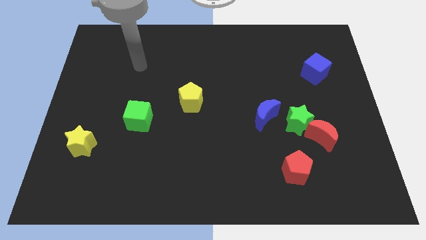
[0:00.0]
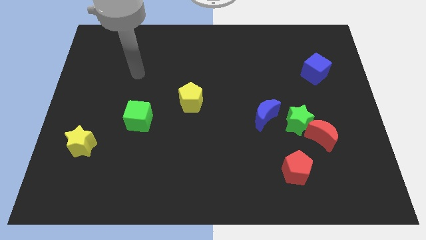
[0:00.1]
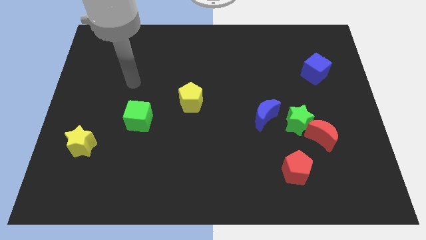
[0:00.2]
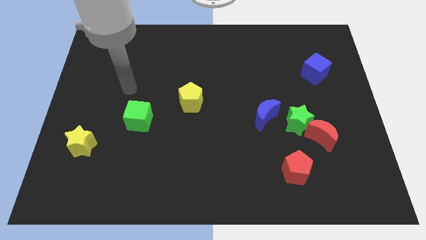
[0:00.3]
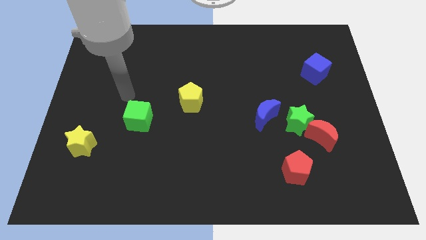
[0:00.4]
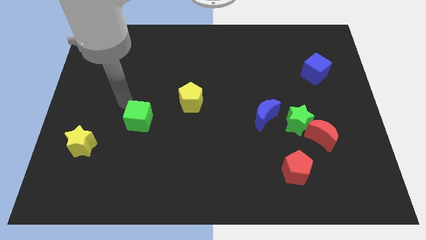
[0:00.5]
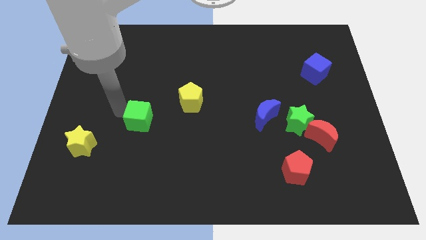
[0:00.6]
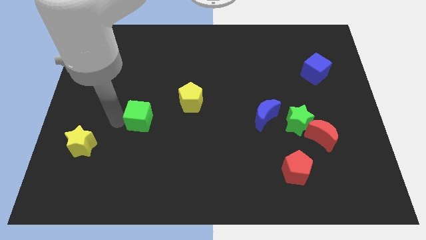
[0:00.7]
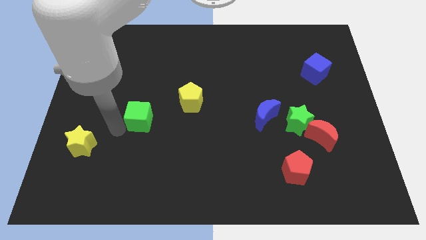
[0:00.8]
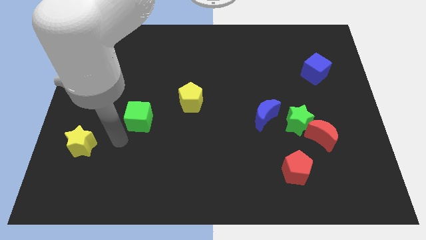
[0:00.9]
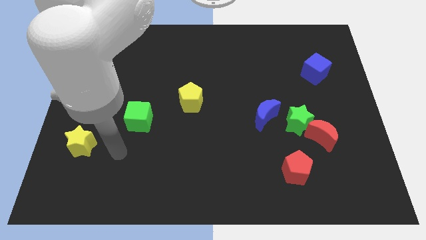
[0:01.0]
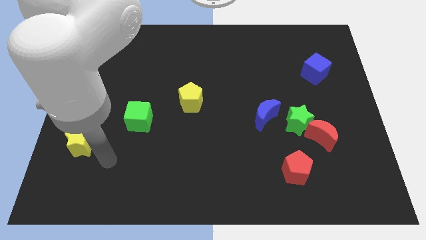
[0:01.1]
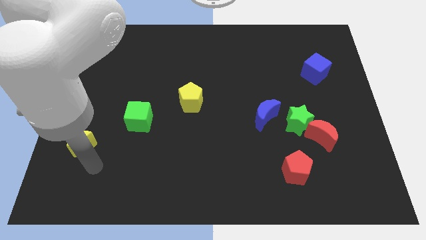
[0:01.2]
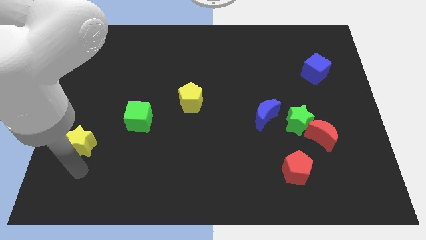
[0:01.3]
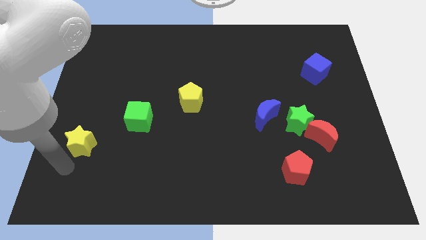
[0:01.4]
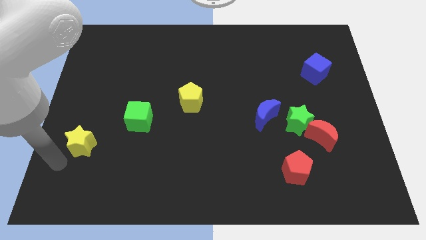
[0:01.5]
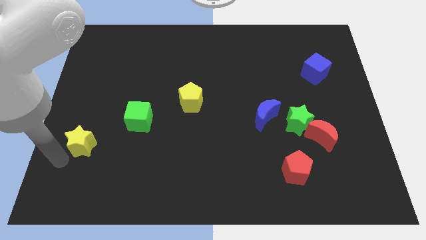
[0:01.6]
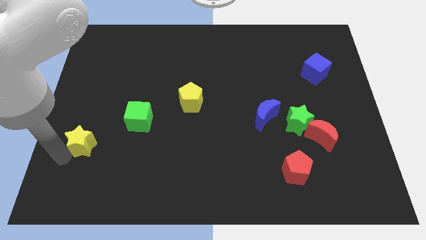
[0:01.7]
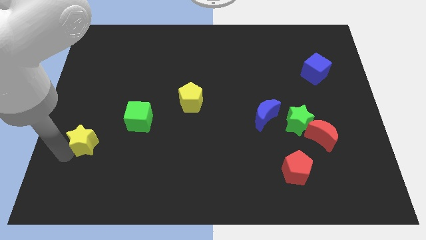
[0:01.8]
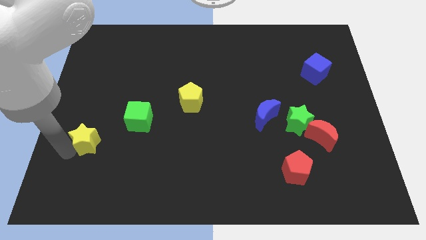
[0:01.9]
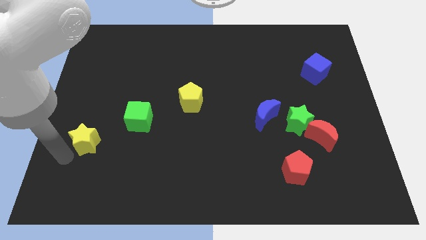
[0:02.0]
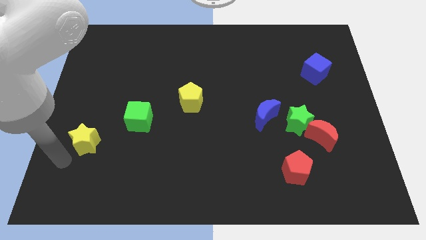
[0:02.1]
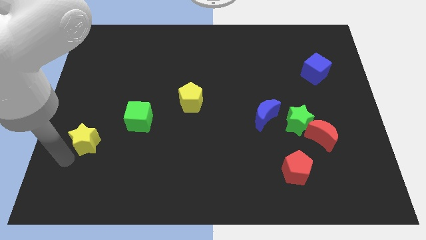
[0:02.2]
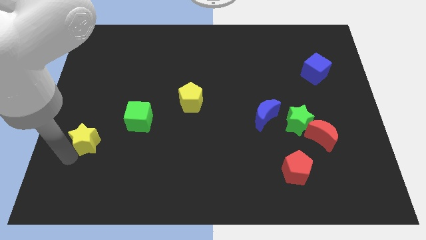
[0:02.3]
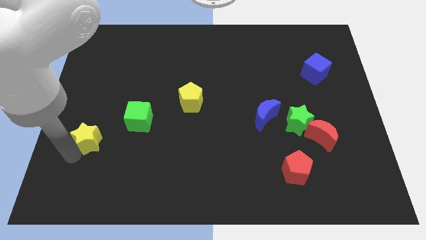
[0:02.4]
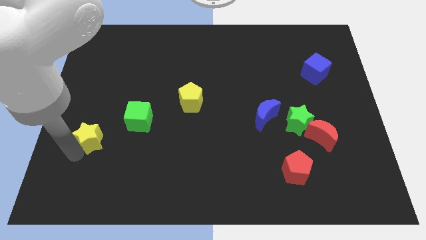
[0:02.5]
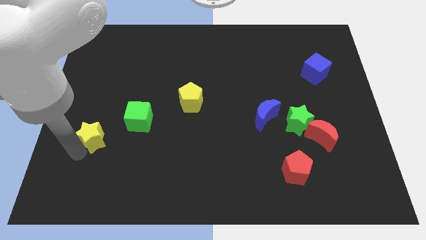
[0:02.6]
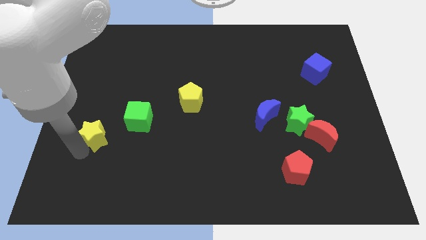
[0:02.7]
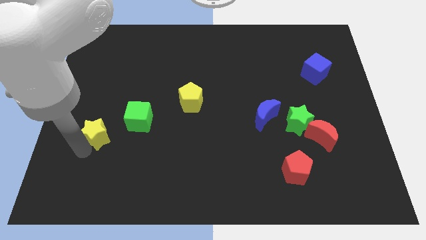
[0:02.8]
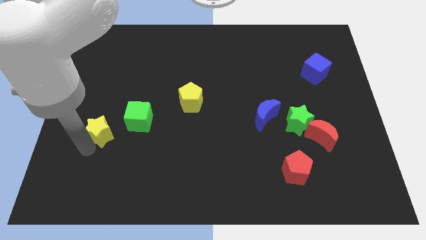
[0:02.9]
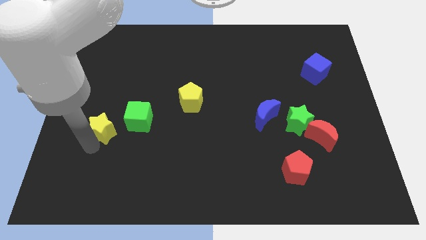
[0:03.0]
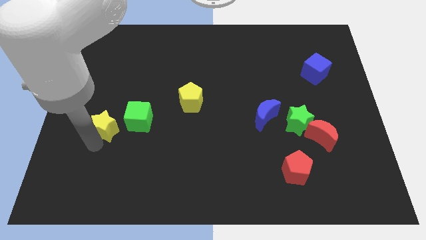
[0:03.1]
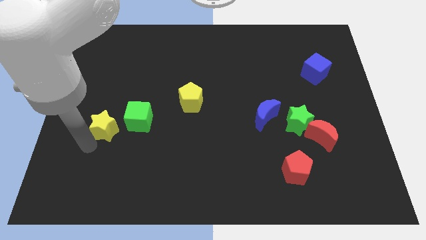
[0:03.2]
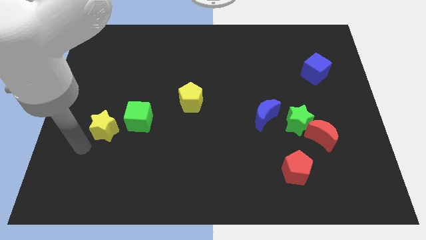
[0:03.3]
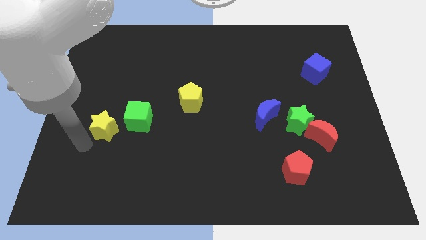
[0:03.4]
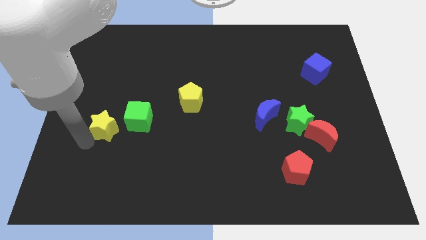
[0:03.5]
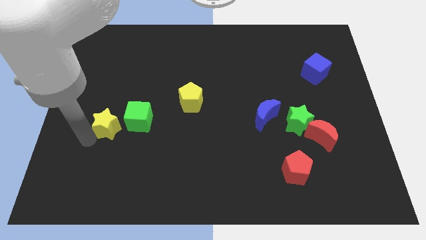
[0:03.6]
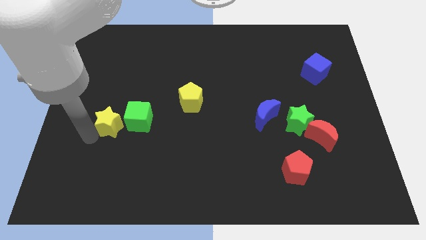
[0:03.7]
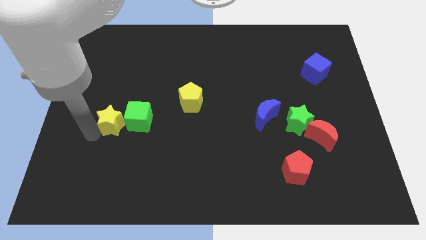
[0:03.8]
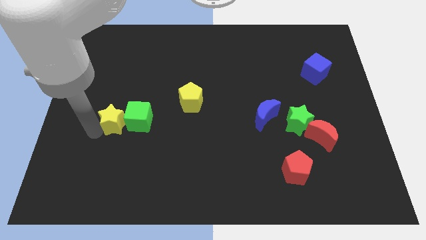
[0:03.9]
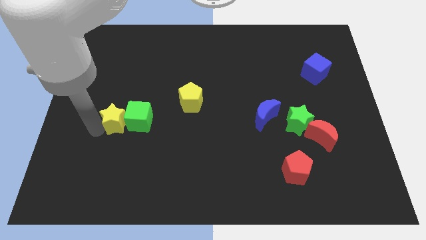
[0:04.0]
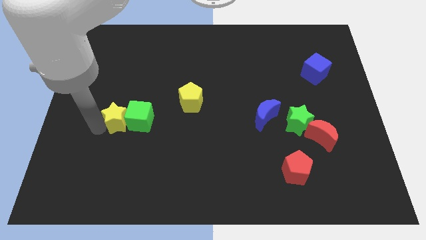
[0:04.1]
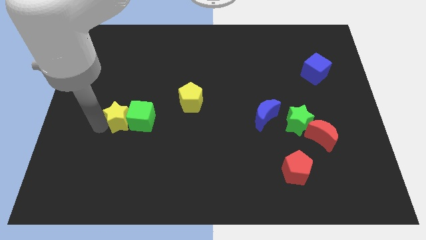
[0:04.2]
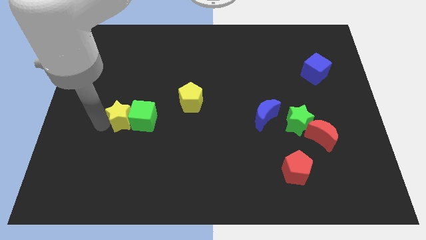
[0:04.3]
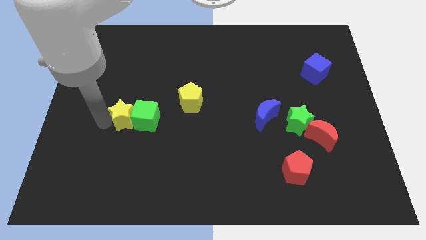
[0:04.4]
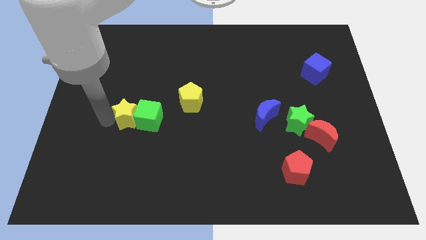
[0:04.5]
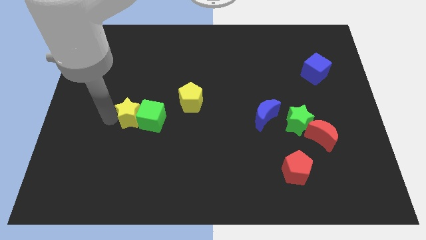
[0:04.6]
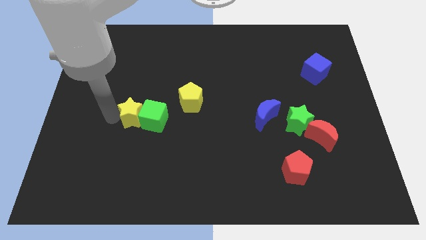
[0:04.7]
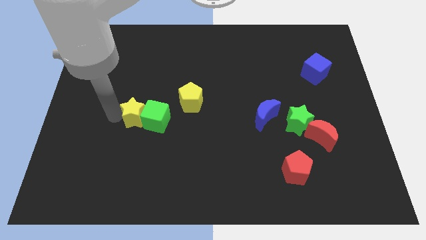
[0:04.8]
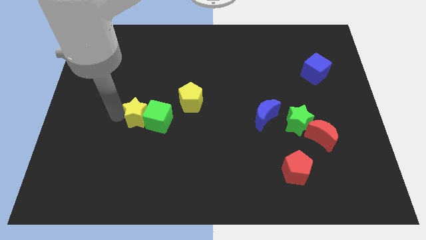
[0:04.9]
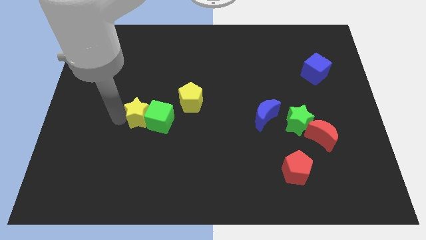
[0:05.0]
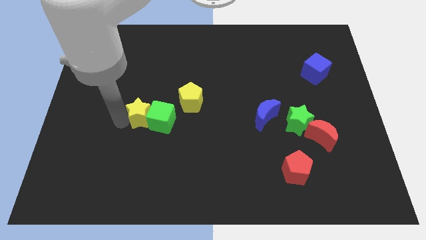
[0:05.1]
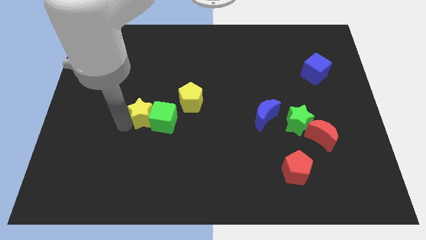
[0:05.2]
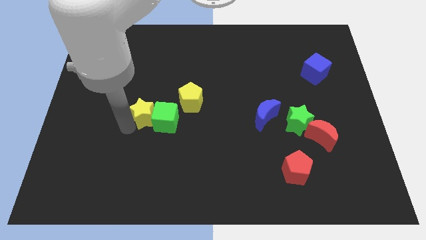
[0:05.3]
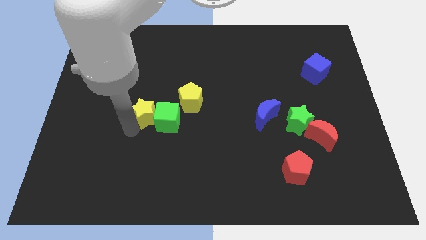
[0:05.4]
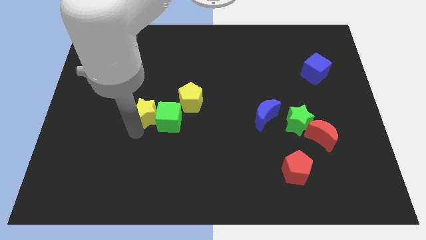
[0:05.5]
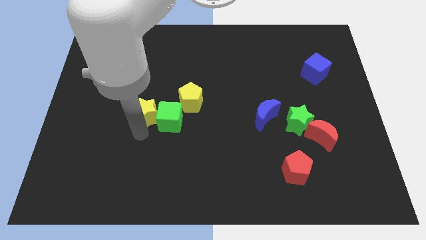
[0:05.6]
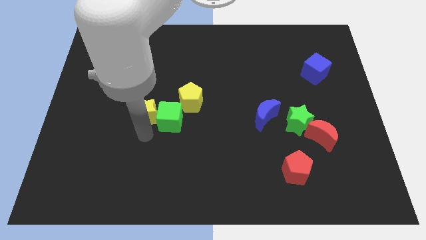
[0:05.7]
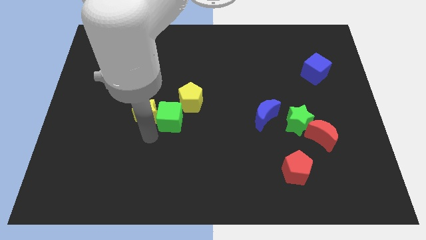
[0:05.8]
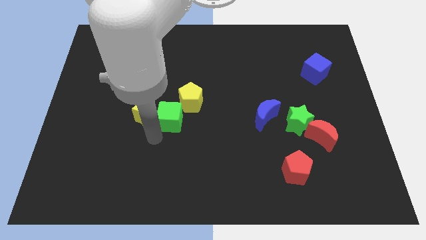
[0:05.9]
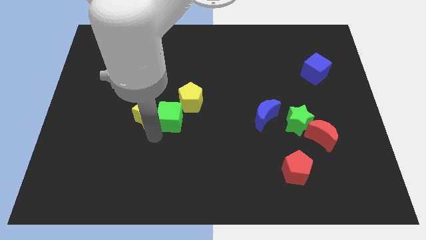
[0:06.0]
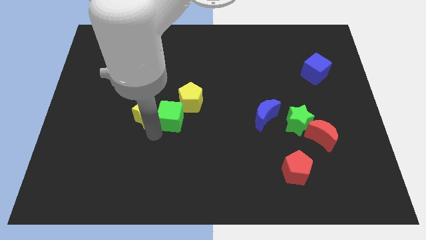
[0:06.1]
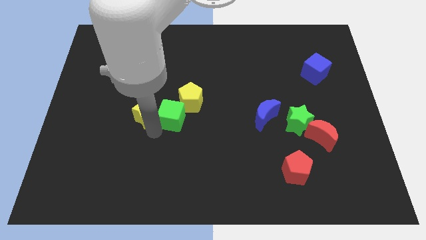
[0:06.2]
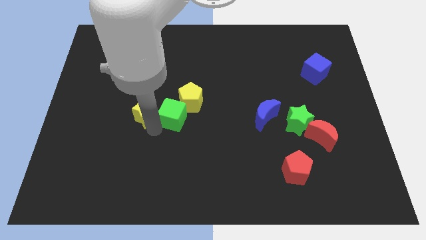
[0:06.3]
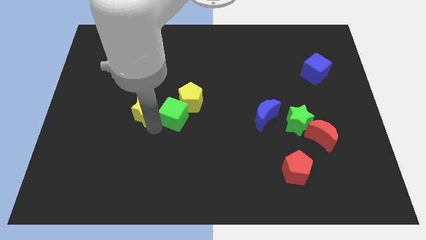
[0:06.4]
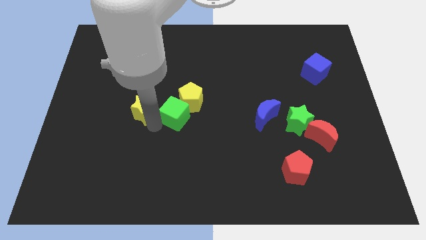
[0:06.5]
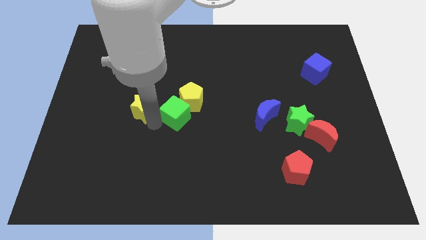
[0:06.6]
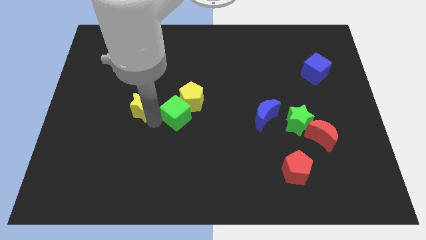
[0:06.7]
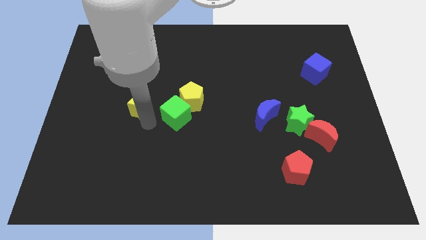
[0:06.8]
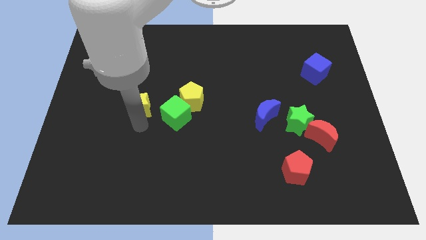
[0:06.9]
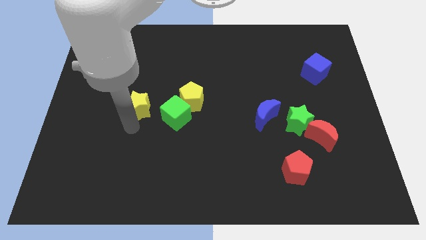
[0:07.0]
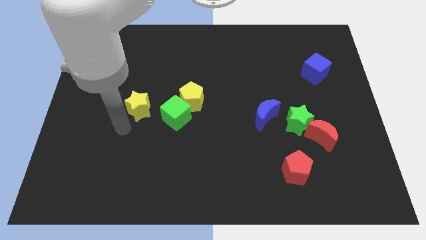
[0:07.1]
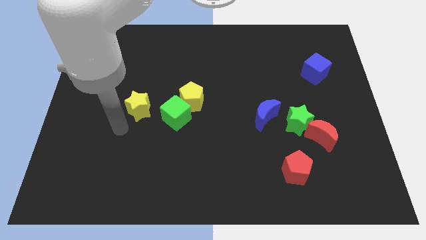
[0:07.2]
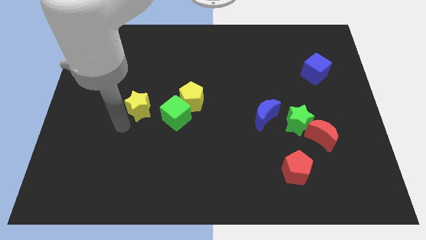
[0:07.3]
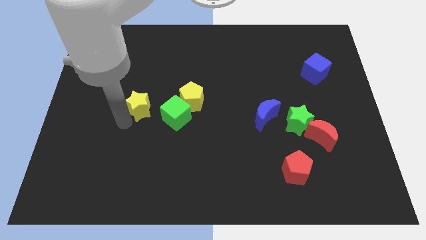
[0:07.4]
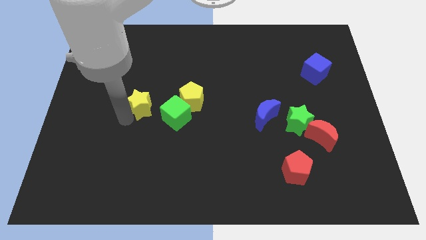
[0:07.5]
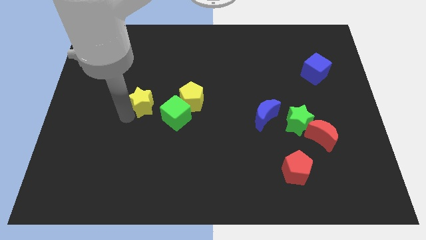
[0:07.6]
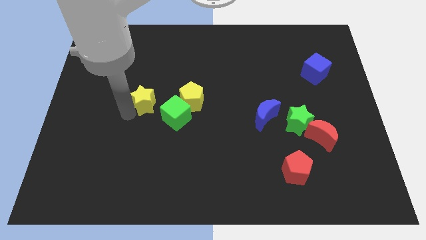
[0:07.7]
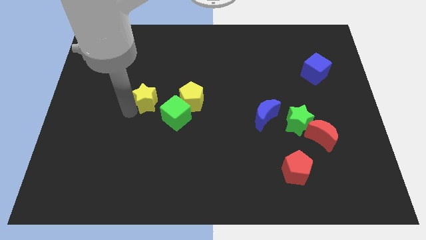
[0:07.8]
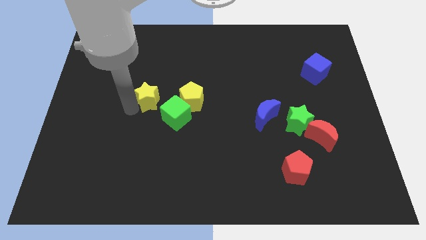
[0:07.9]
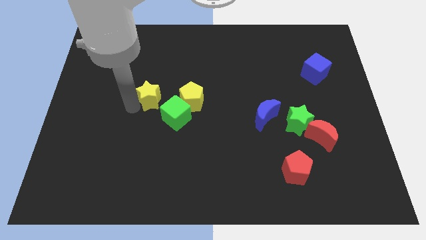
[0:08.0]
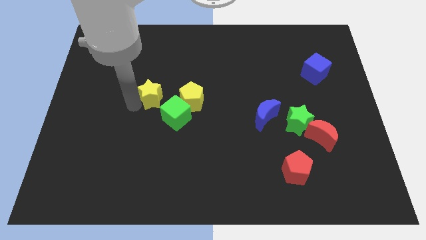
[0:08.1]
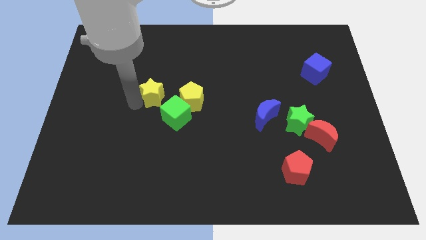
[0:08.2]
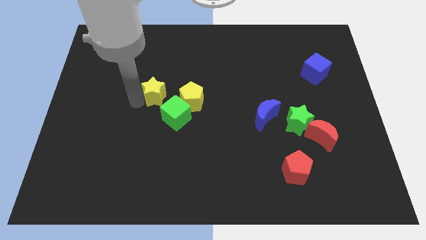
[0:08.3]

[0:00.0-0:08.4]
push the yellow star up and then right
